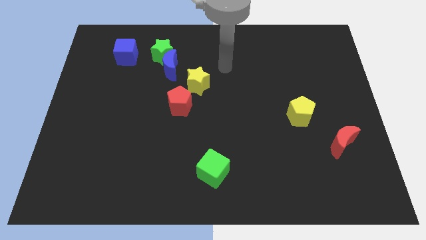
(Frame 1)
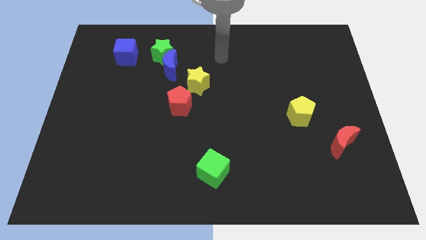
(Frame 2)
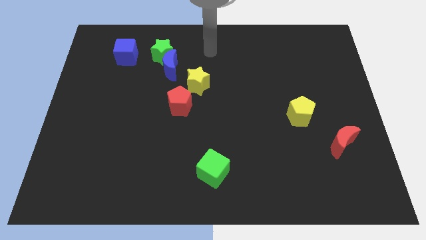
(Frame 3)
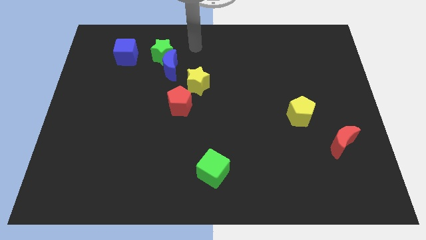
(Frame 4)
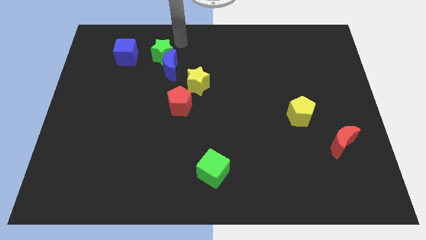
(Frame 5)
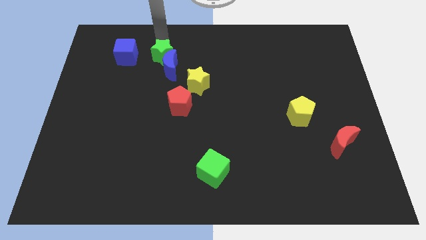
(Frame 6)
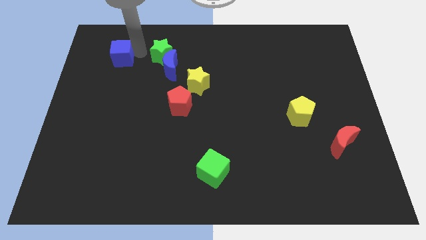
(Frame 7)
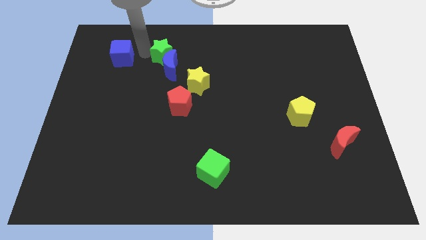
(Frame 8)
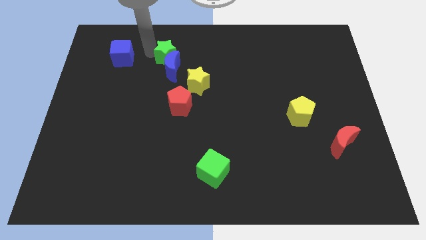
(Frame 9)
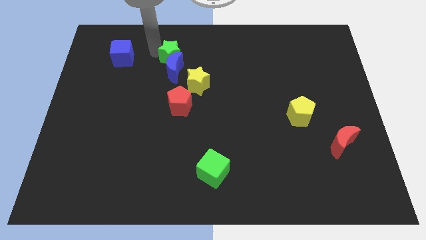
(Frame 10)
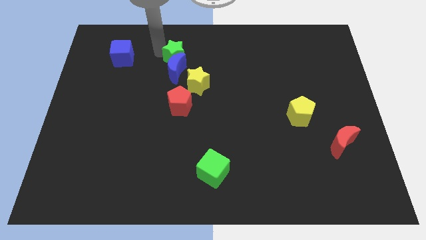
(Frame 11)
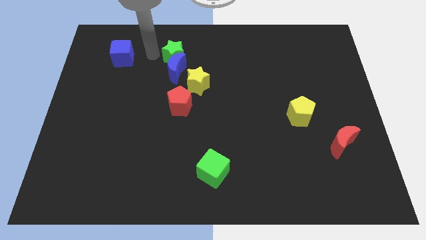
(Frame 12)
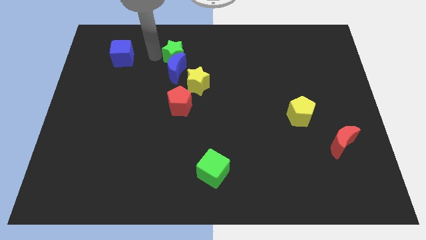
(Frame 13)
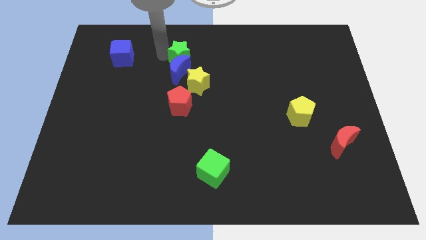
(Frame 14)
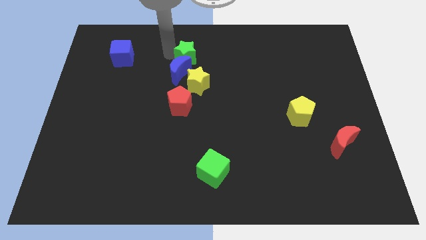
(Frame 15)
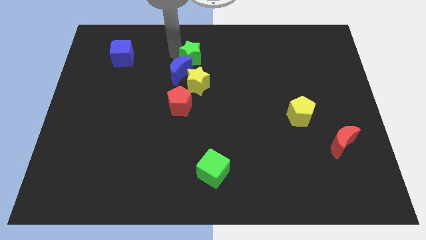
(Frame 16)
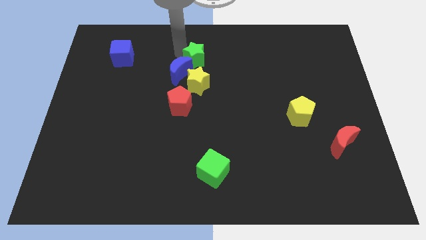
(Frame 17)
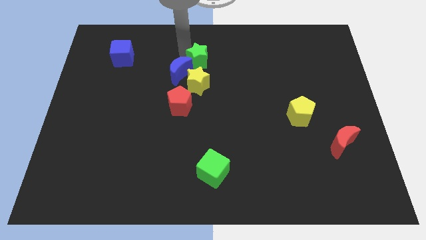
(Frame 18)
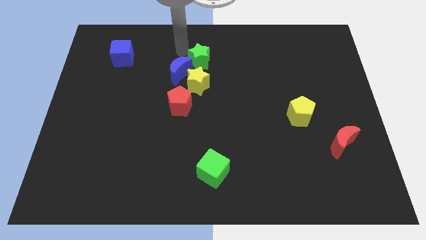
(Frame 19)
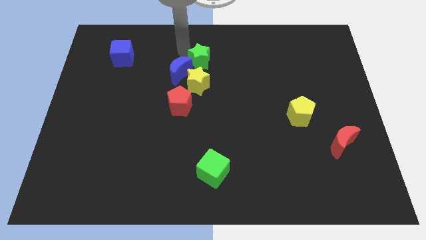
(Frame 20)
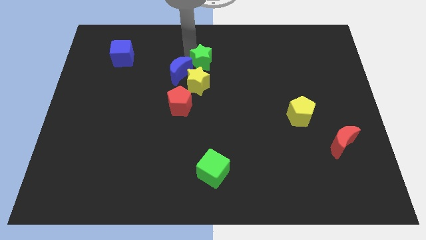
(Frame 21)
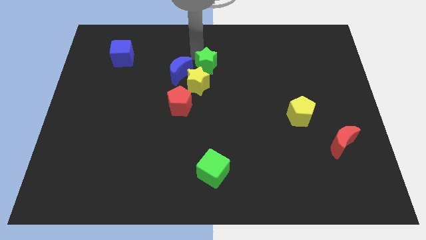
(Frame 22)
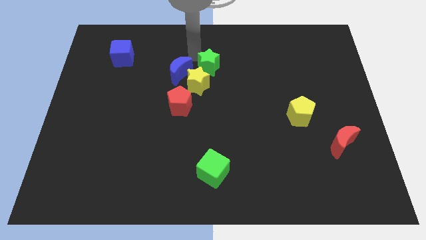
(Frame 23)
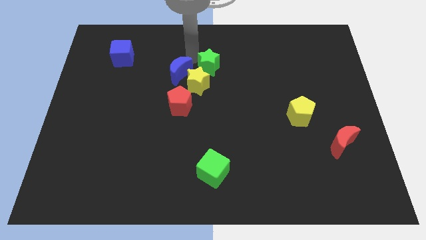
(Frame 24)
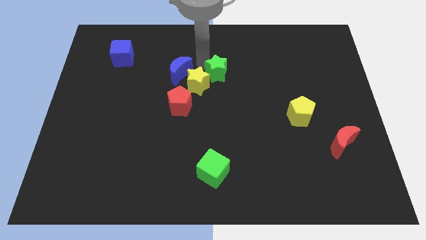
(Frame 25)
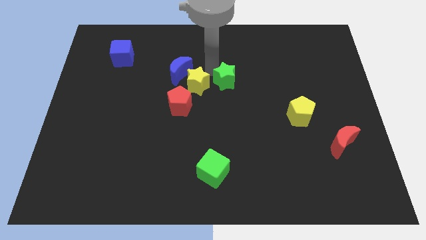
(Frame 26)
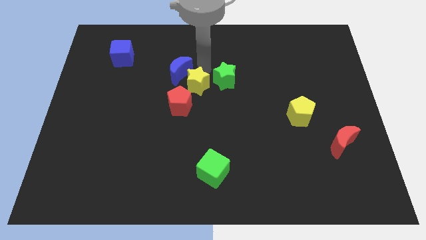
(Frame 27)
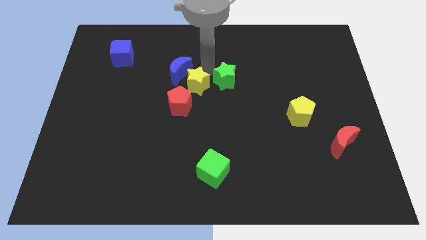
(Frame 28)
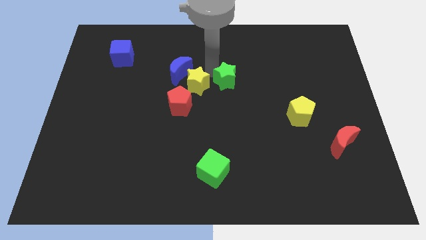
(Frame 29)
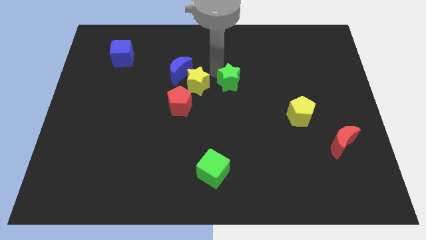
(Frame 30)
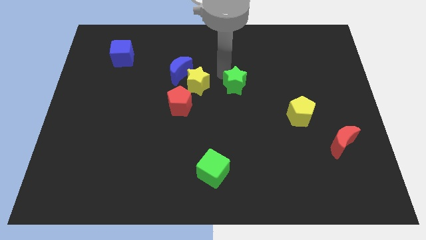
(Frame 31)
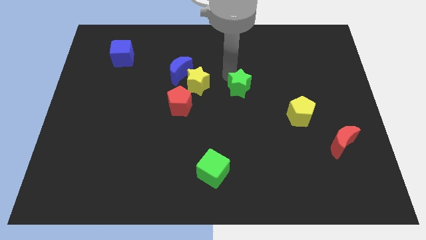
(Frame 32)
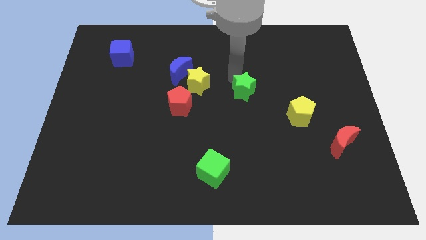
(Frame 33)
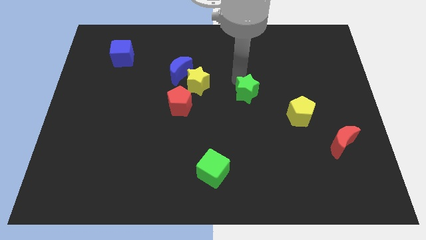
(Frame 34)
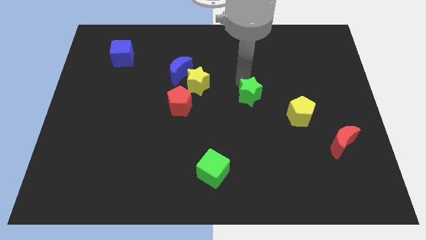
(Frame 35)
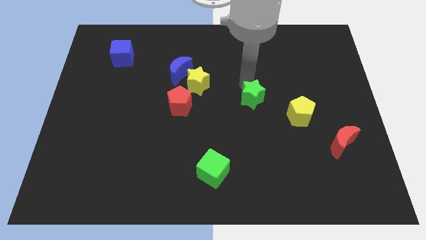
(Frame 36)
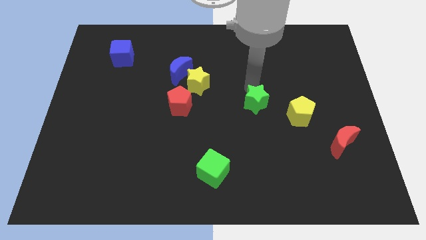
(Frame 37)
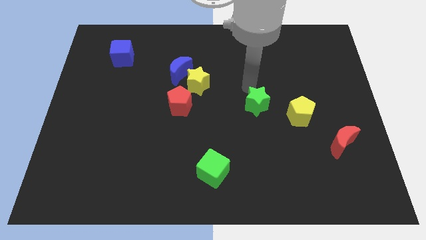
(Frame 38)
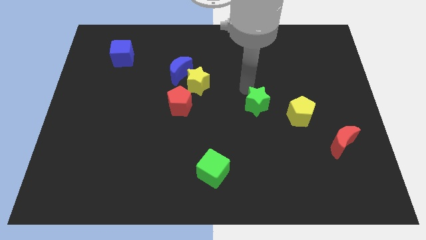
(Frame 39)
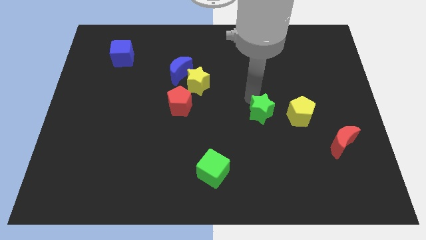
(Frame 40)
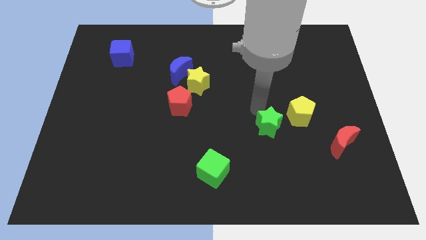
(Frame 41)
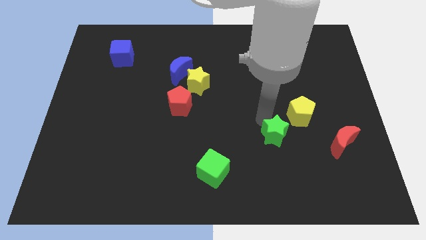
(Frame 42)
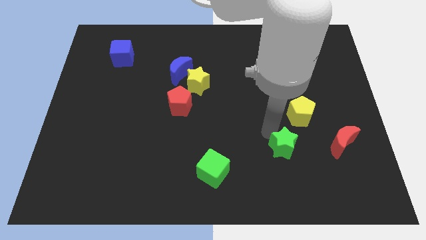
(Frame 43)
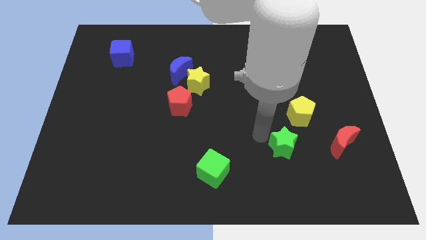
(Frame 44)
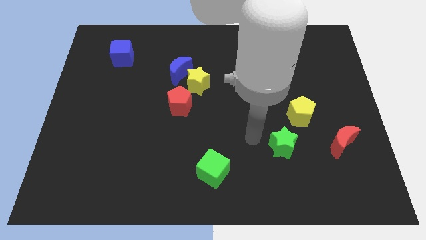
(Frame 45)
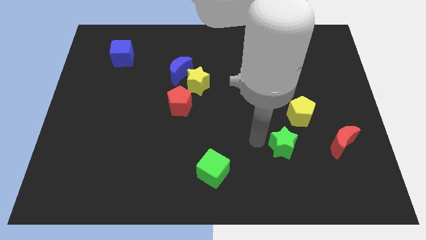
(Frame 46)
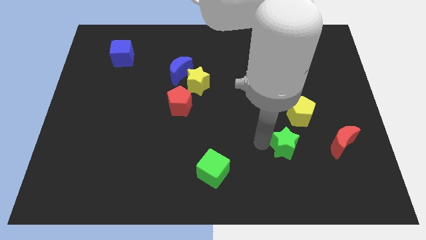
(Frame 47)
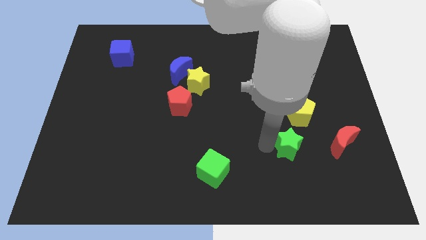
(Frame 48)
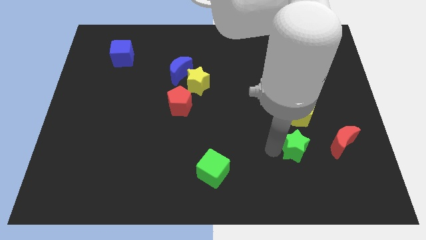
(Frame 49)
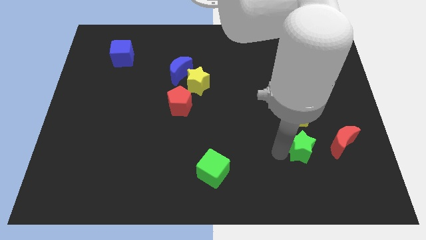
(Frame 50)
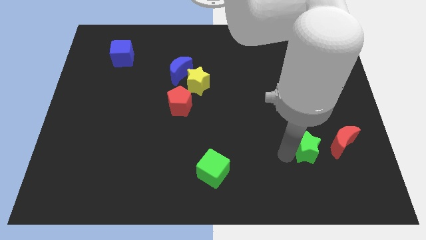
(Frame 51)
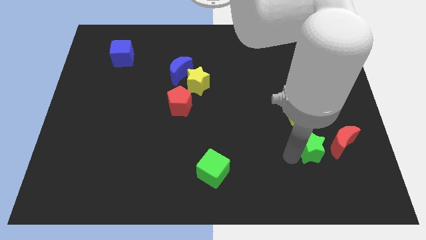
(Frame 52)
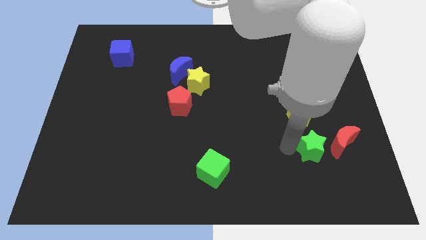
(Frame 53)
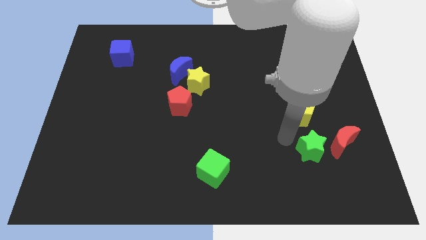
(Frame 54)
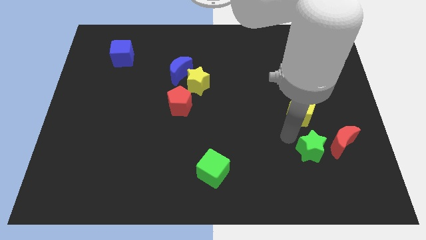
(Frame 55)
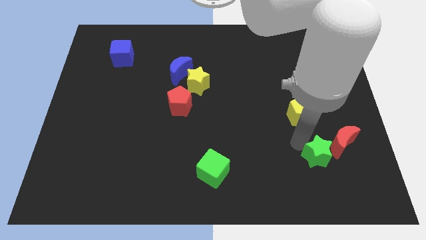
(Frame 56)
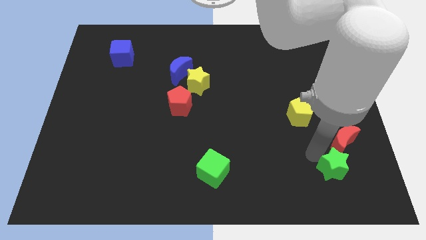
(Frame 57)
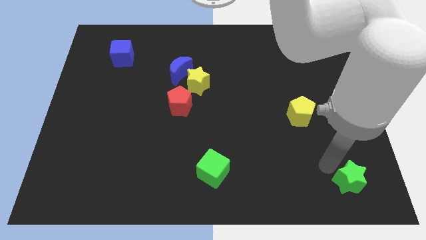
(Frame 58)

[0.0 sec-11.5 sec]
push the green star to the lower right corner

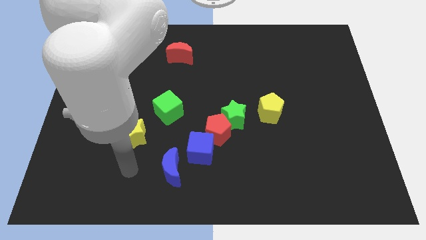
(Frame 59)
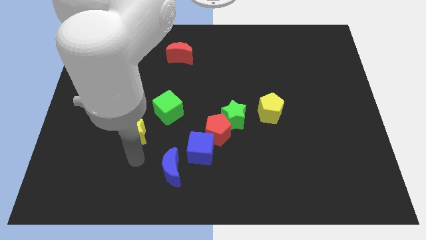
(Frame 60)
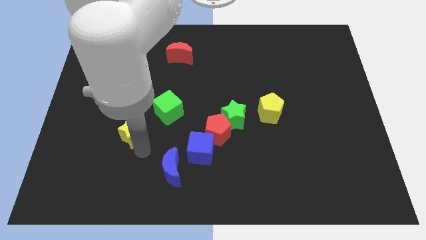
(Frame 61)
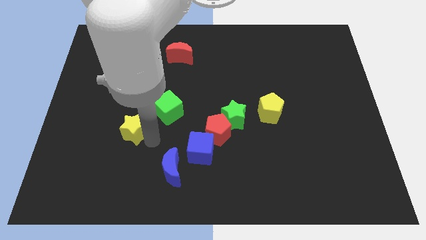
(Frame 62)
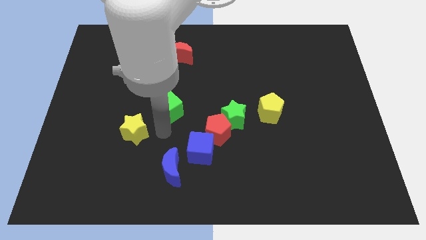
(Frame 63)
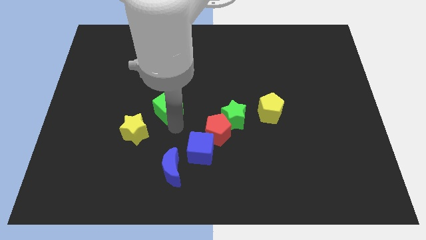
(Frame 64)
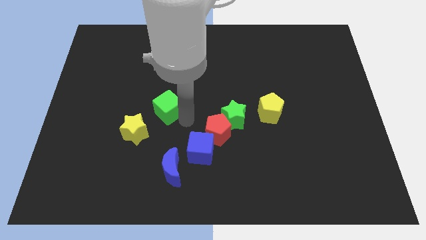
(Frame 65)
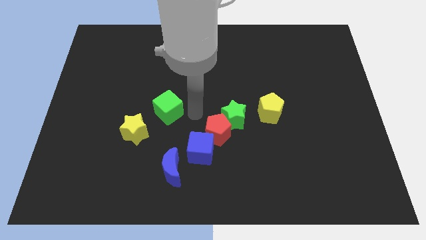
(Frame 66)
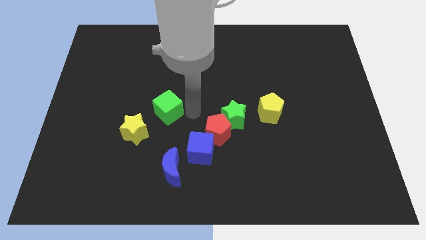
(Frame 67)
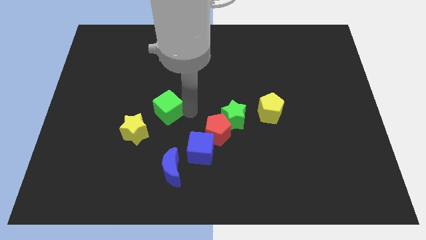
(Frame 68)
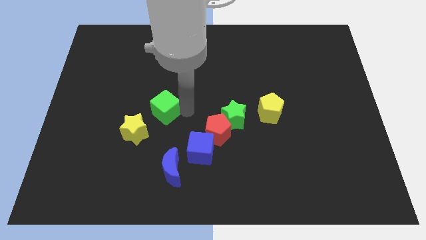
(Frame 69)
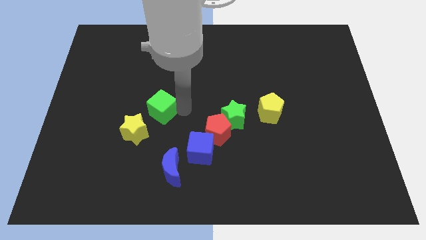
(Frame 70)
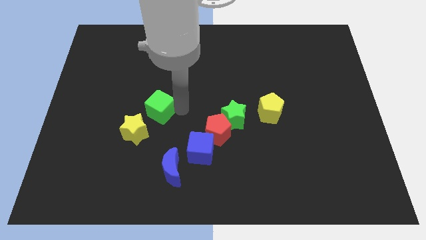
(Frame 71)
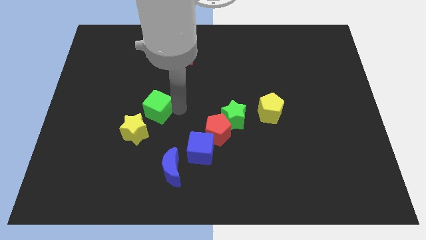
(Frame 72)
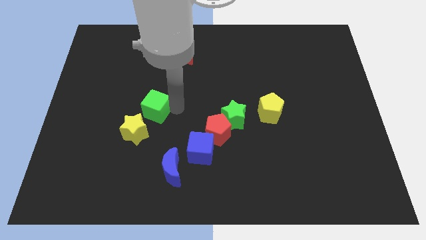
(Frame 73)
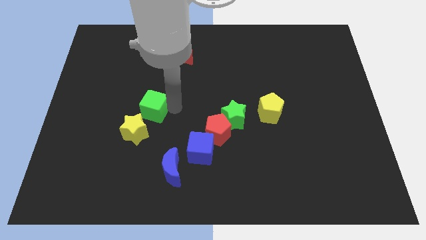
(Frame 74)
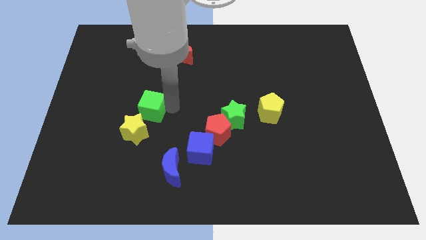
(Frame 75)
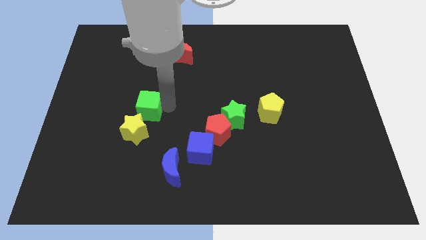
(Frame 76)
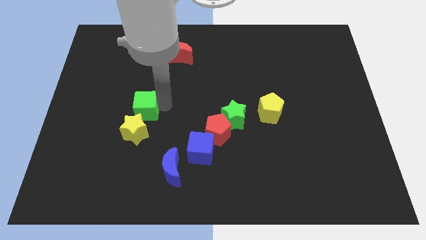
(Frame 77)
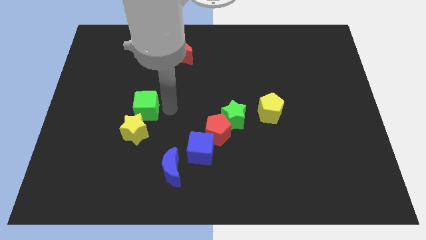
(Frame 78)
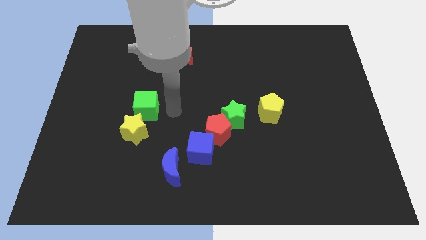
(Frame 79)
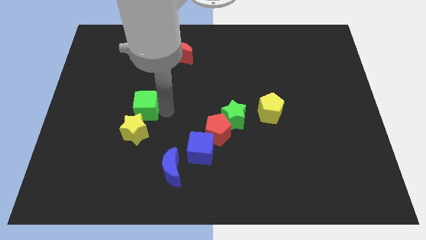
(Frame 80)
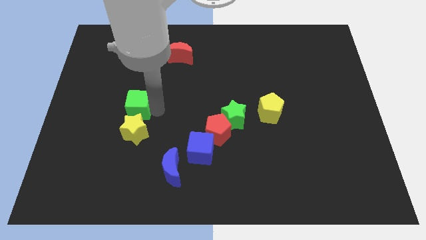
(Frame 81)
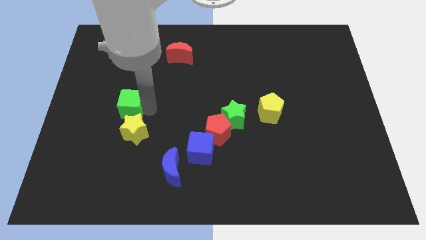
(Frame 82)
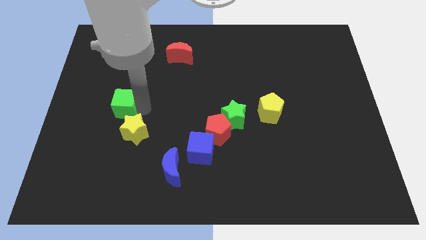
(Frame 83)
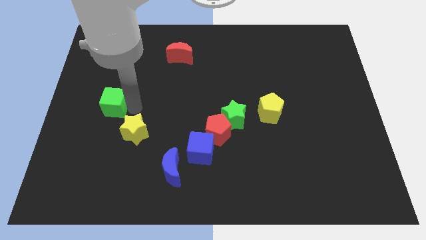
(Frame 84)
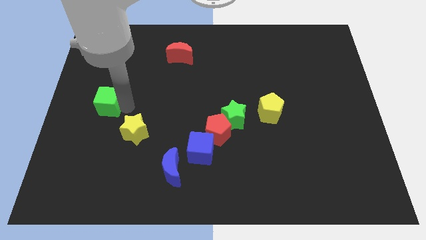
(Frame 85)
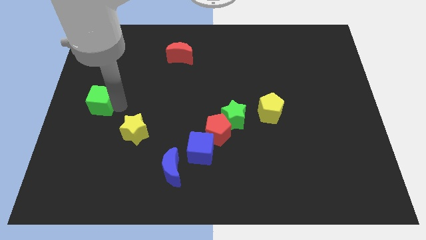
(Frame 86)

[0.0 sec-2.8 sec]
put the green cube to the center left
